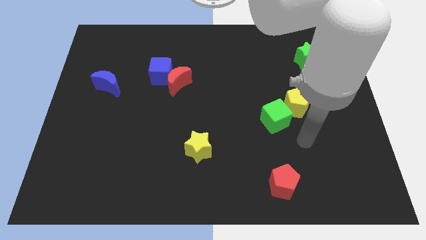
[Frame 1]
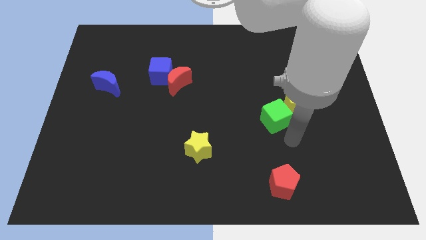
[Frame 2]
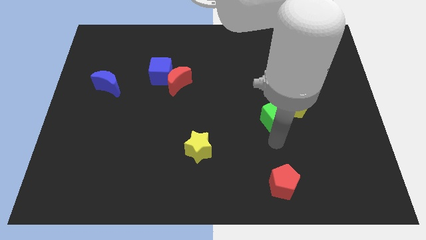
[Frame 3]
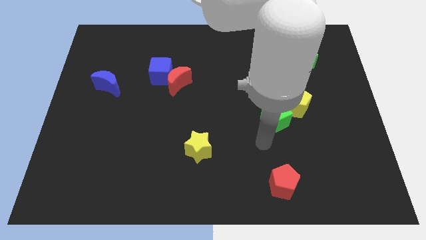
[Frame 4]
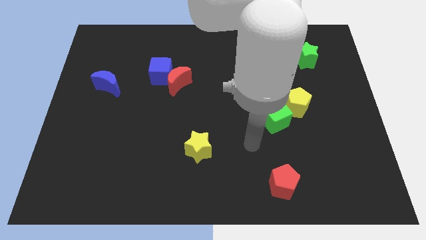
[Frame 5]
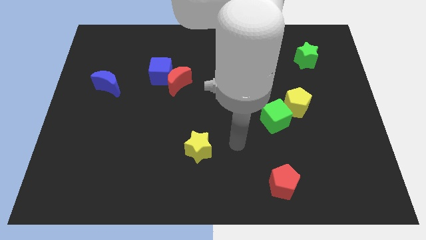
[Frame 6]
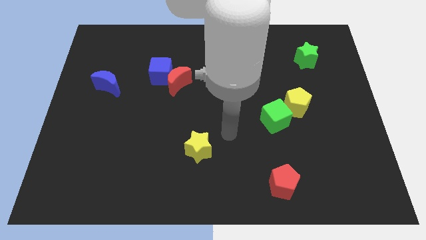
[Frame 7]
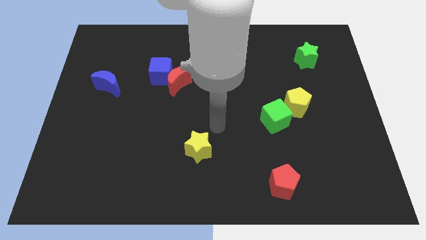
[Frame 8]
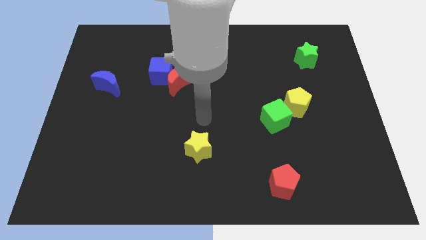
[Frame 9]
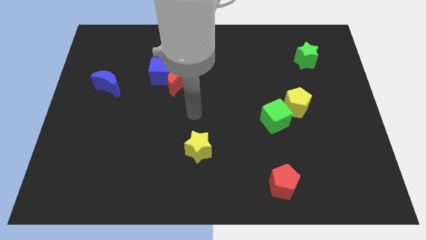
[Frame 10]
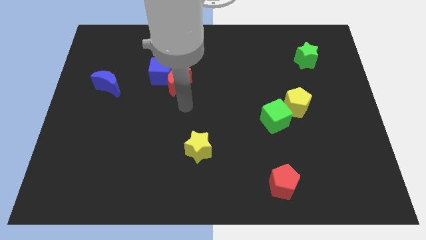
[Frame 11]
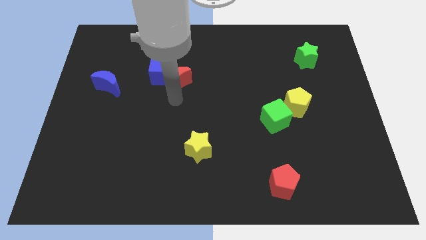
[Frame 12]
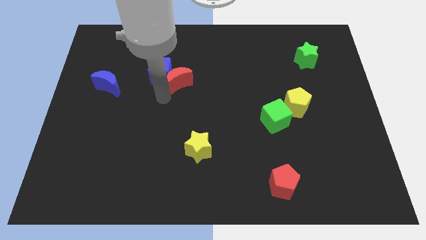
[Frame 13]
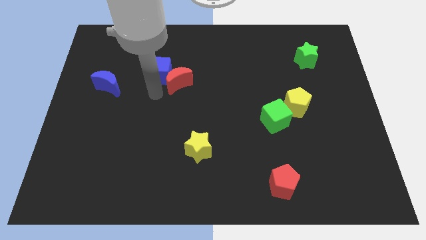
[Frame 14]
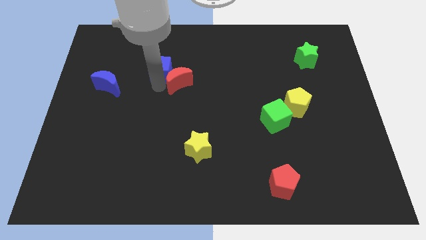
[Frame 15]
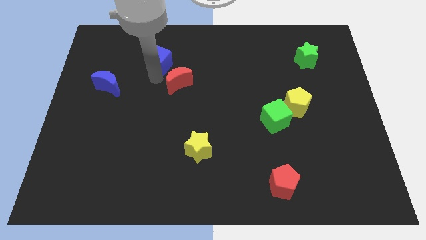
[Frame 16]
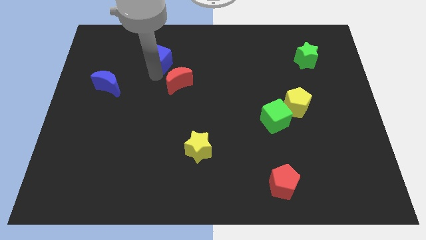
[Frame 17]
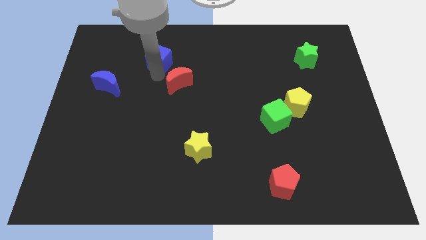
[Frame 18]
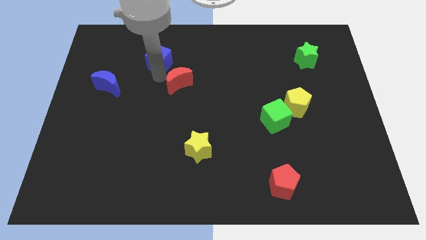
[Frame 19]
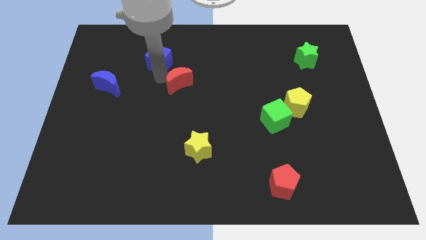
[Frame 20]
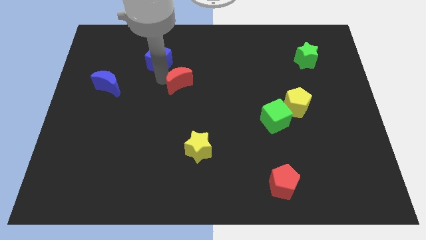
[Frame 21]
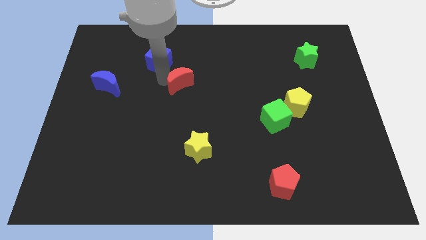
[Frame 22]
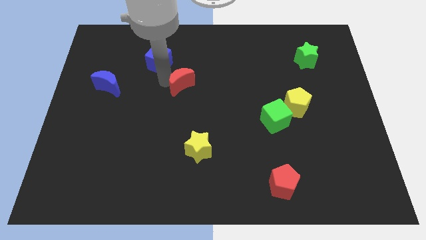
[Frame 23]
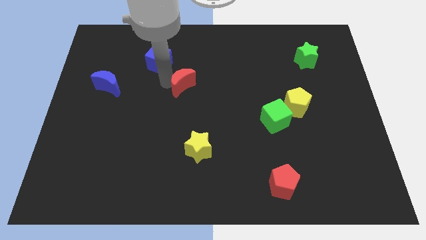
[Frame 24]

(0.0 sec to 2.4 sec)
pull the red moon apart from the blue cube

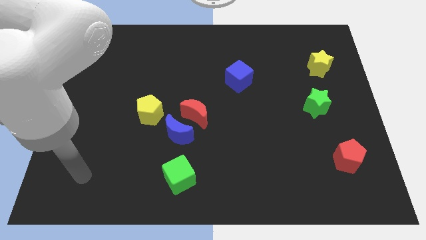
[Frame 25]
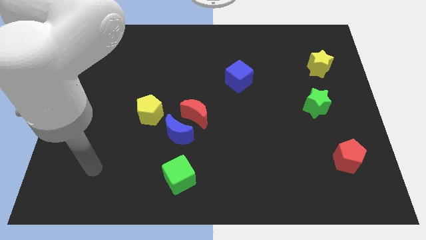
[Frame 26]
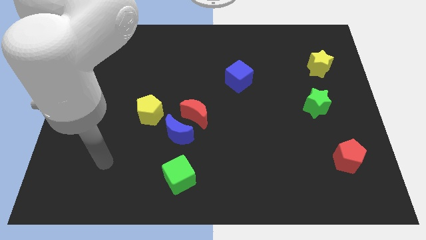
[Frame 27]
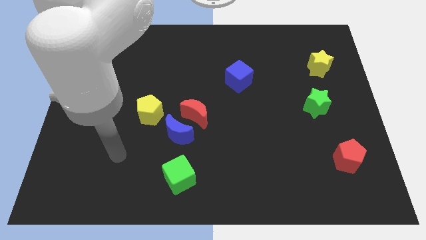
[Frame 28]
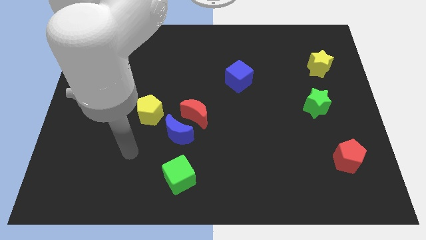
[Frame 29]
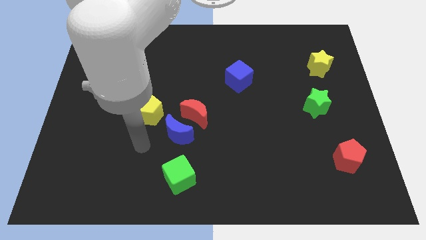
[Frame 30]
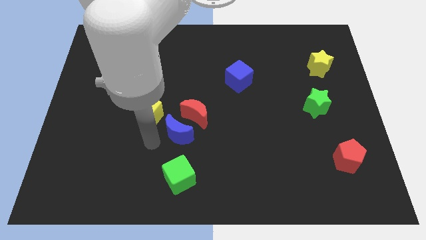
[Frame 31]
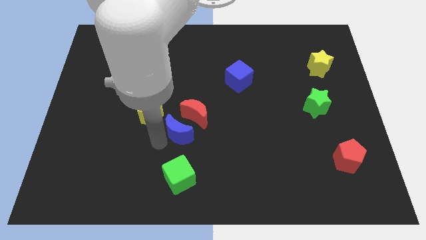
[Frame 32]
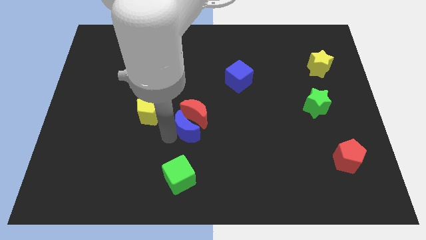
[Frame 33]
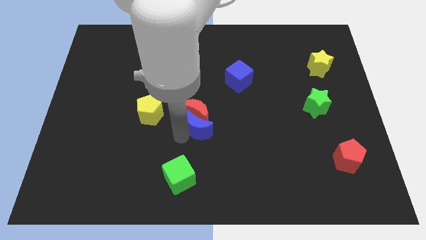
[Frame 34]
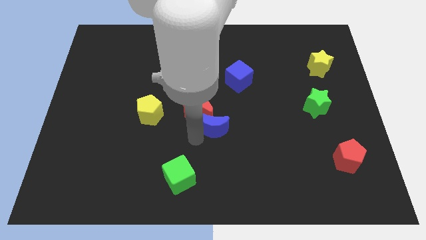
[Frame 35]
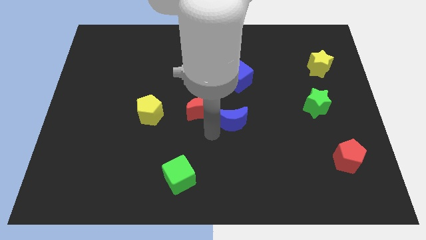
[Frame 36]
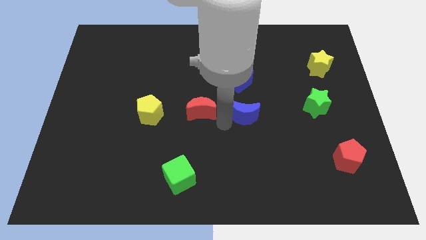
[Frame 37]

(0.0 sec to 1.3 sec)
move the red moon away from the blue moon

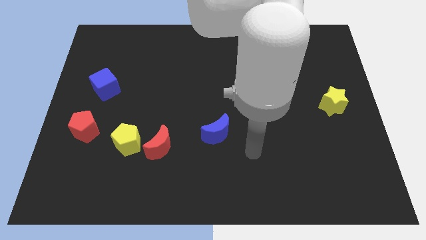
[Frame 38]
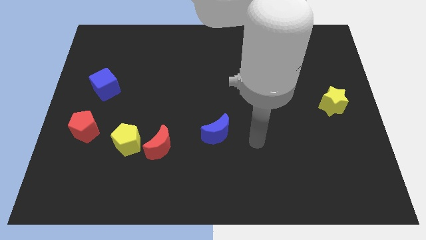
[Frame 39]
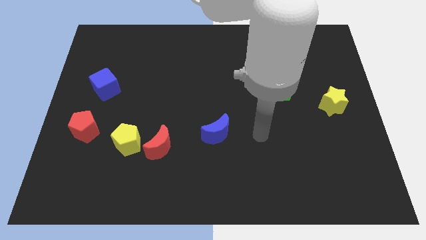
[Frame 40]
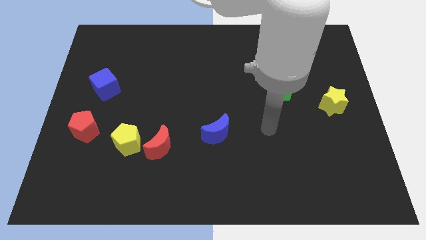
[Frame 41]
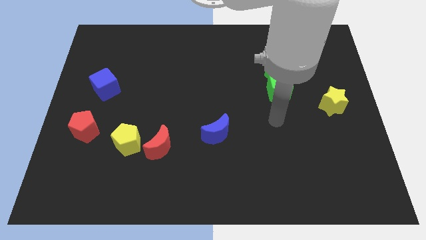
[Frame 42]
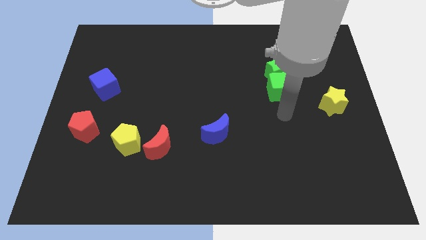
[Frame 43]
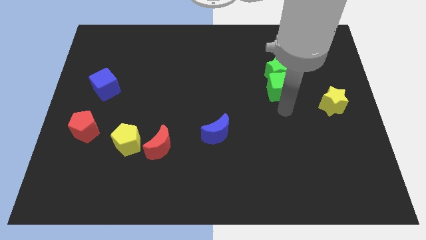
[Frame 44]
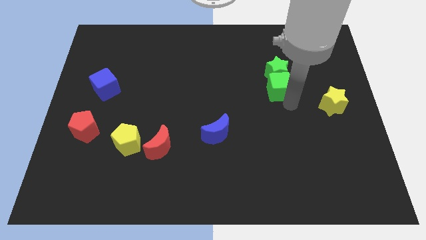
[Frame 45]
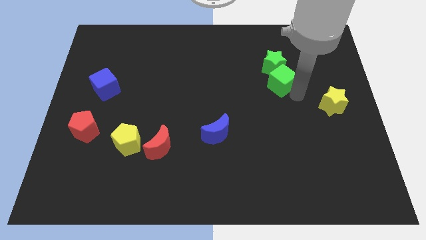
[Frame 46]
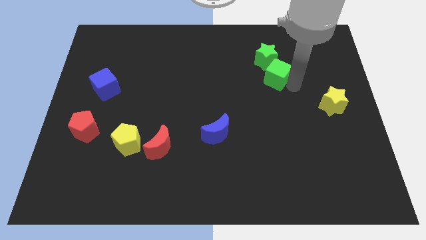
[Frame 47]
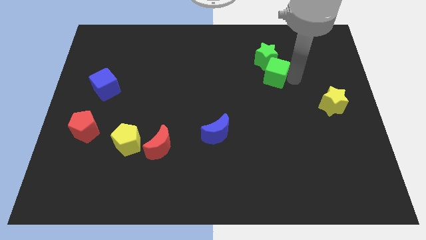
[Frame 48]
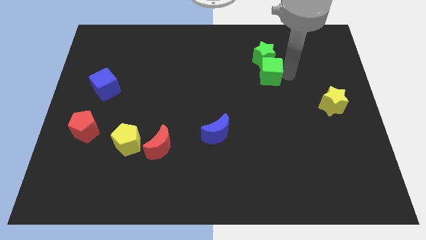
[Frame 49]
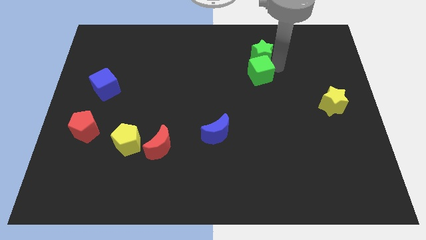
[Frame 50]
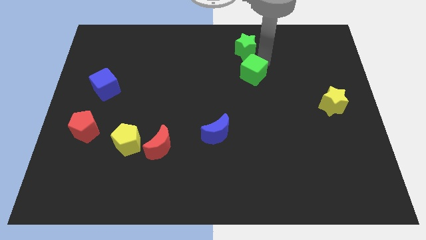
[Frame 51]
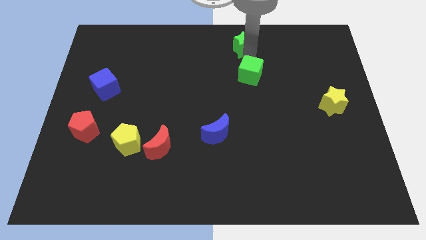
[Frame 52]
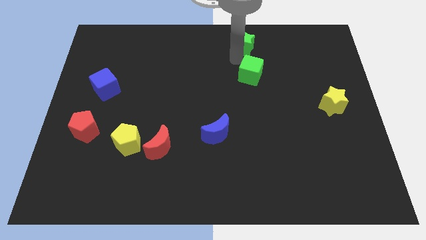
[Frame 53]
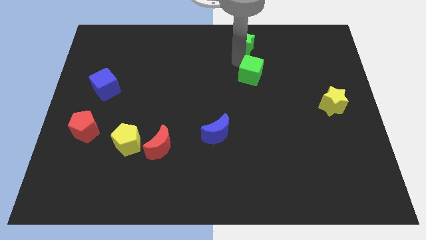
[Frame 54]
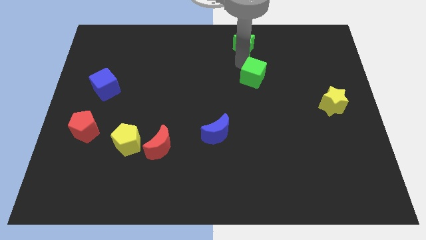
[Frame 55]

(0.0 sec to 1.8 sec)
separate the green cube from the green star

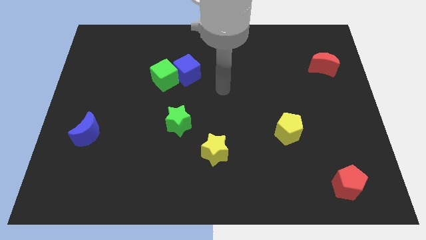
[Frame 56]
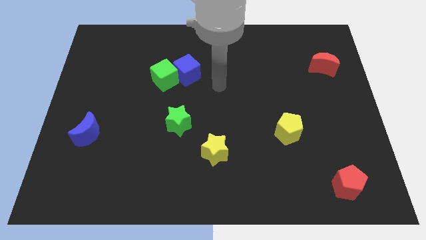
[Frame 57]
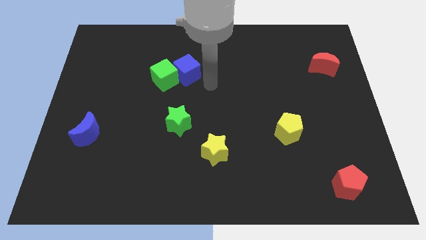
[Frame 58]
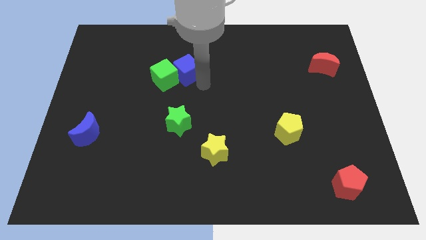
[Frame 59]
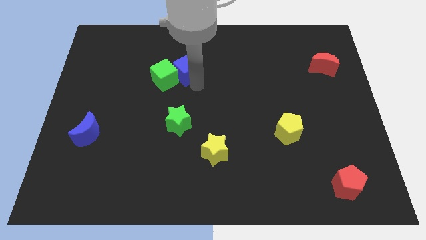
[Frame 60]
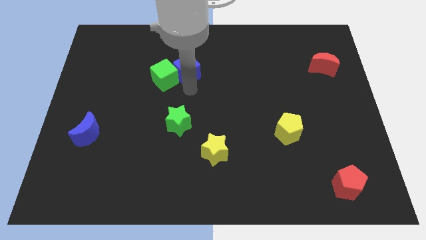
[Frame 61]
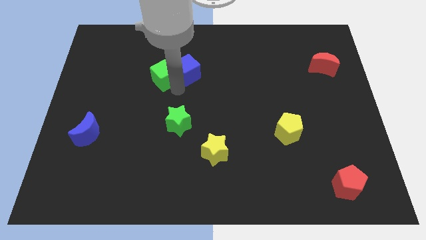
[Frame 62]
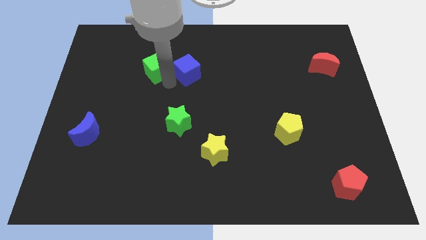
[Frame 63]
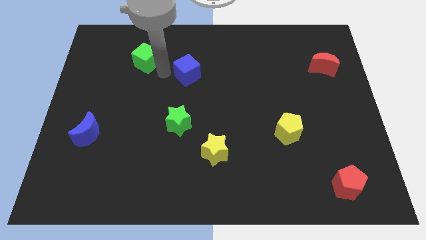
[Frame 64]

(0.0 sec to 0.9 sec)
move the blue cube away from the green cube

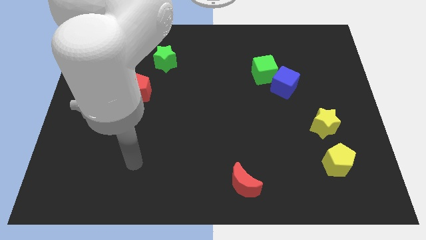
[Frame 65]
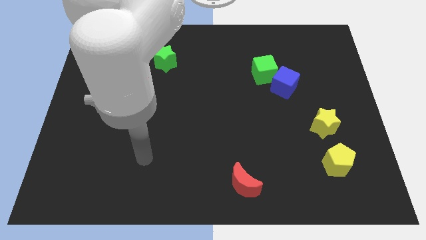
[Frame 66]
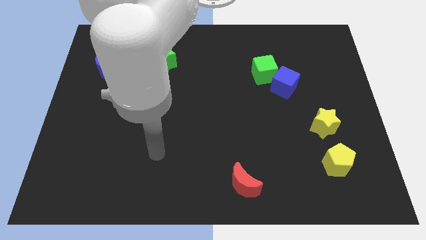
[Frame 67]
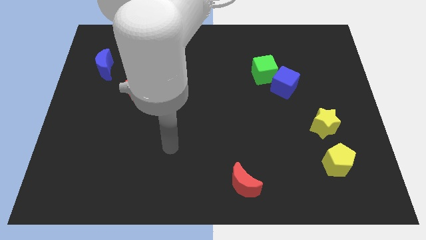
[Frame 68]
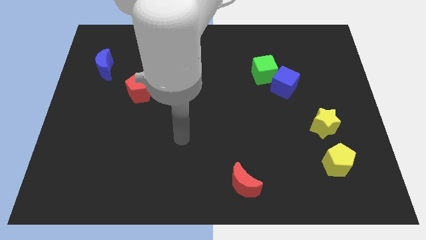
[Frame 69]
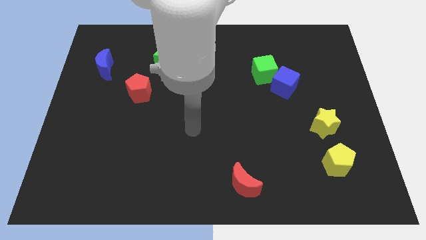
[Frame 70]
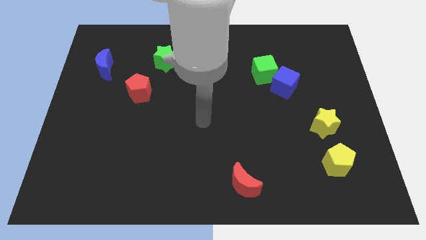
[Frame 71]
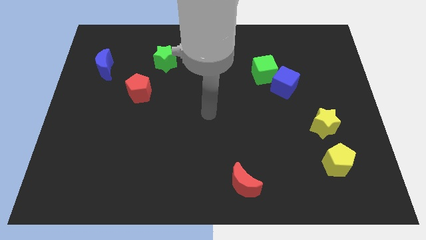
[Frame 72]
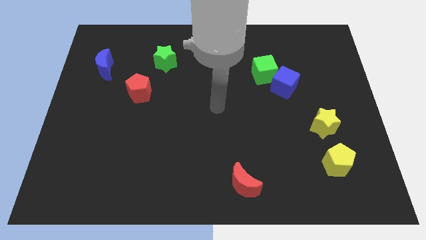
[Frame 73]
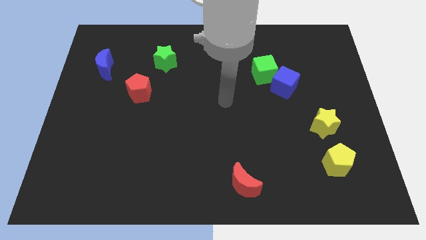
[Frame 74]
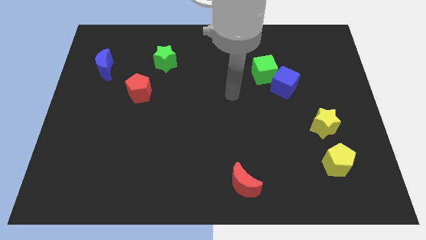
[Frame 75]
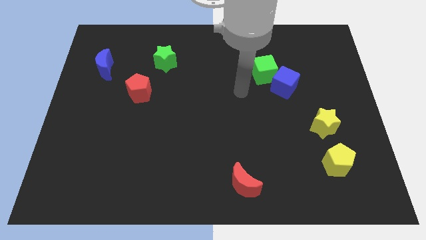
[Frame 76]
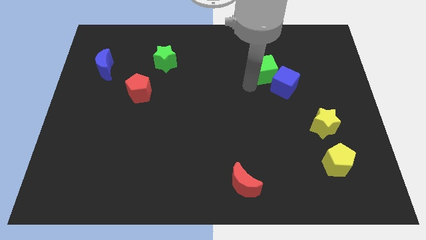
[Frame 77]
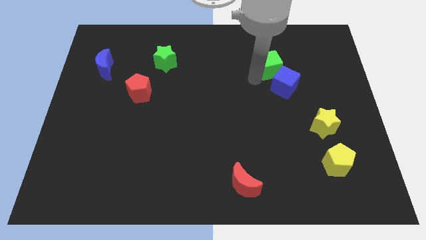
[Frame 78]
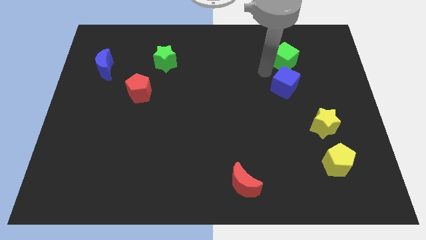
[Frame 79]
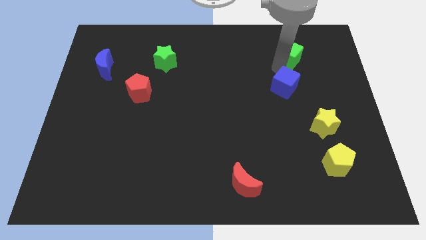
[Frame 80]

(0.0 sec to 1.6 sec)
pull the blue cube apart from the green cube

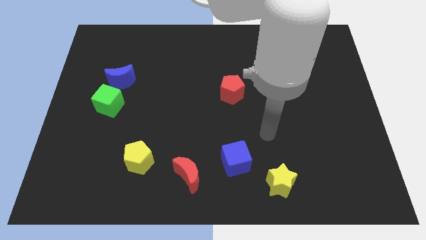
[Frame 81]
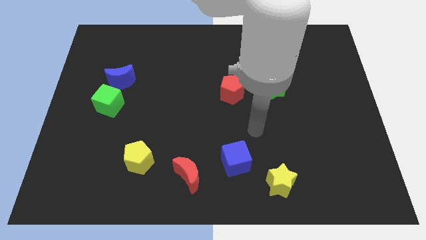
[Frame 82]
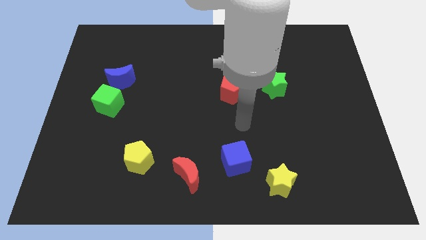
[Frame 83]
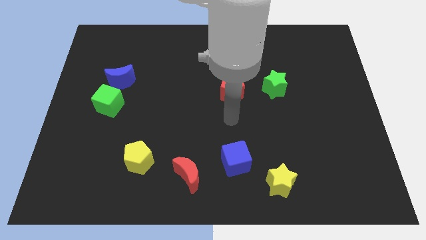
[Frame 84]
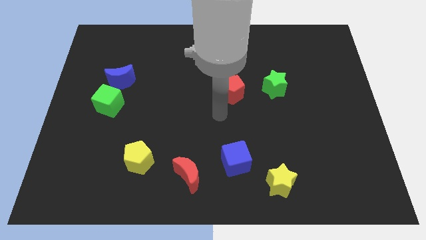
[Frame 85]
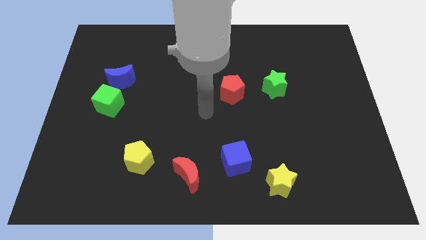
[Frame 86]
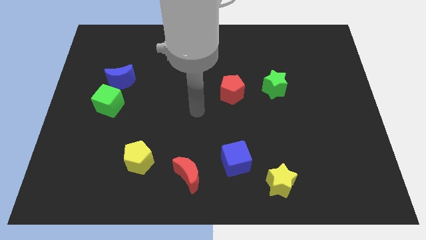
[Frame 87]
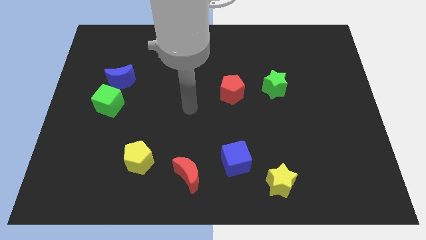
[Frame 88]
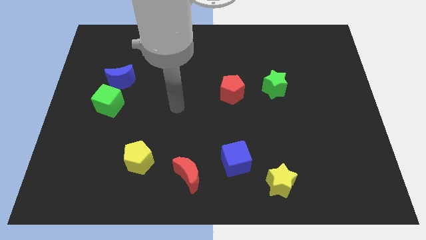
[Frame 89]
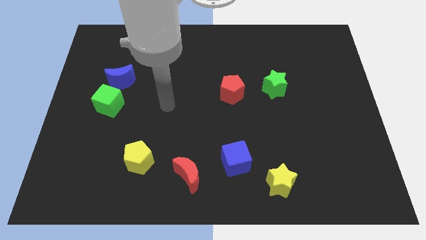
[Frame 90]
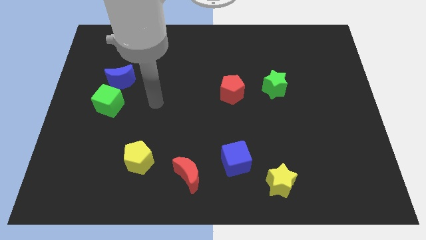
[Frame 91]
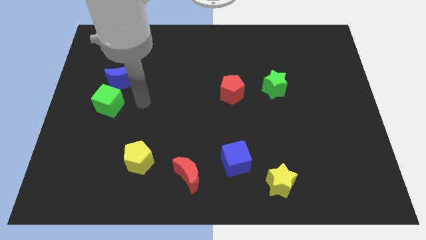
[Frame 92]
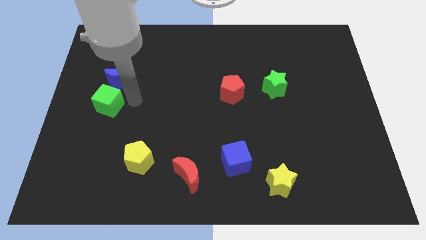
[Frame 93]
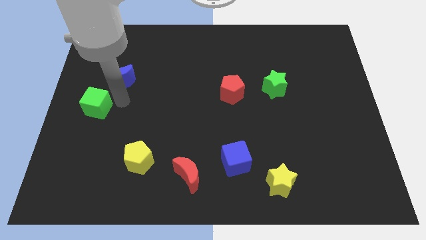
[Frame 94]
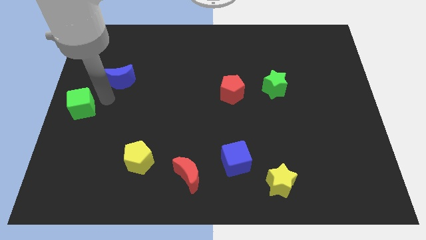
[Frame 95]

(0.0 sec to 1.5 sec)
separate the blue moon from the green cube
